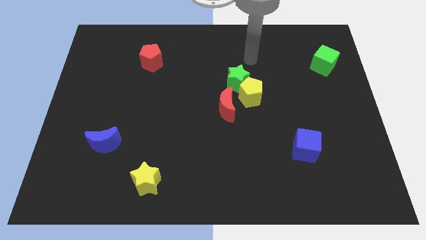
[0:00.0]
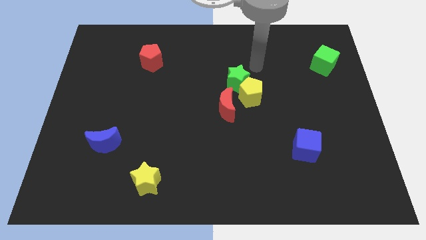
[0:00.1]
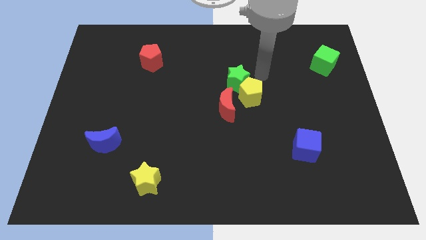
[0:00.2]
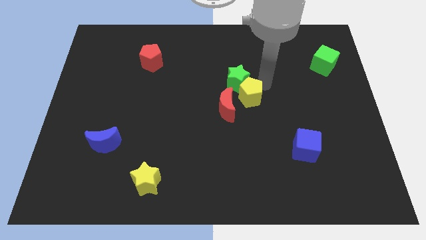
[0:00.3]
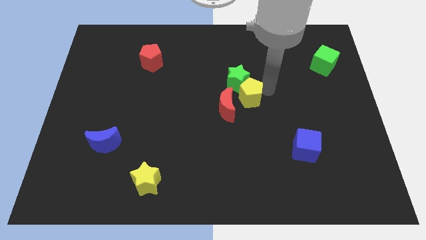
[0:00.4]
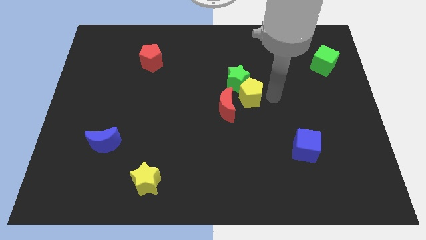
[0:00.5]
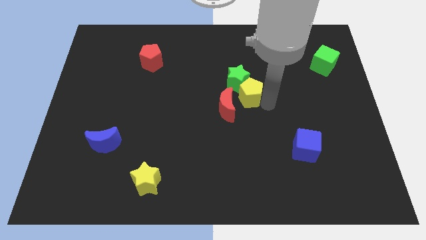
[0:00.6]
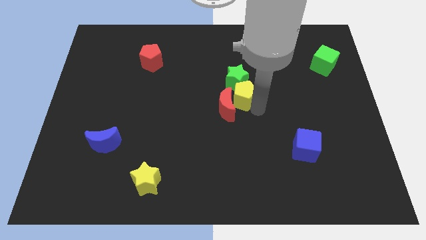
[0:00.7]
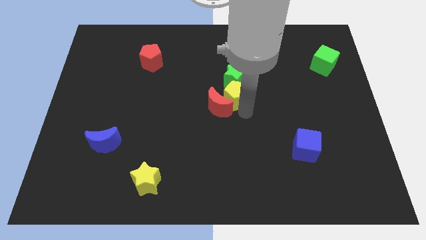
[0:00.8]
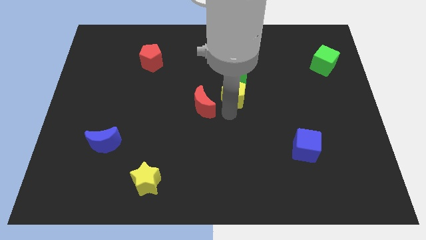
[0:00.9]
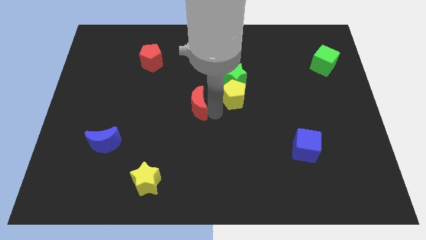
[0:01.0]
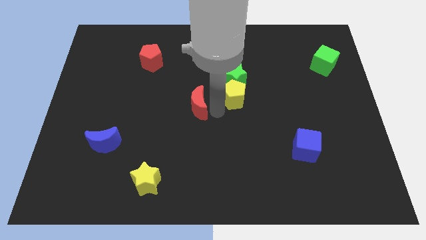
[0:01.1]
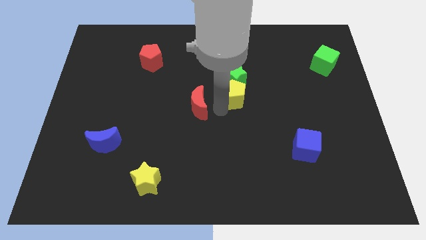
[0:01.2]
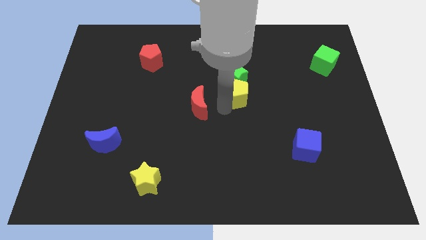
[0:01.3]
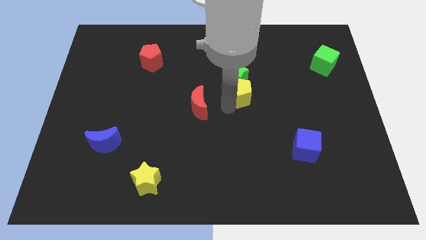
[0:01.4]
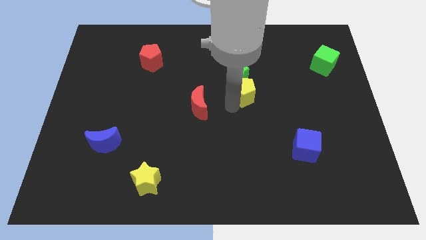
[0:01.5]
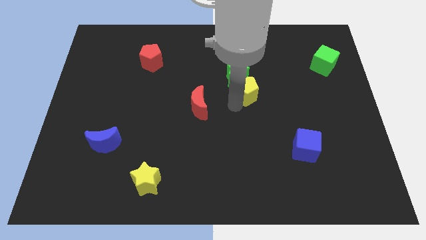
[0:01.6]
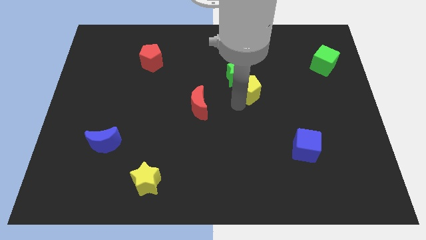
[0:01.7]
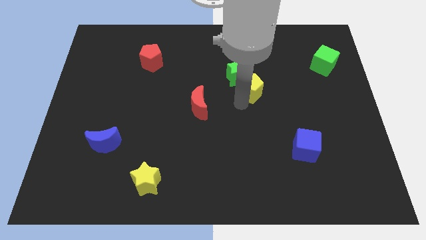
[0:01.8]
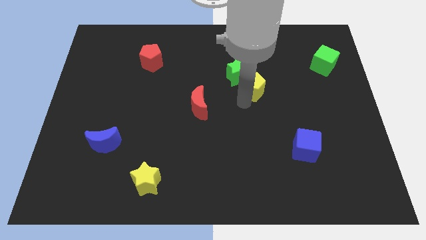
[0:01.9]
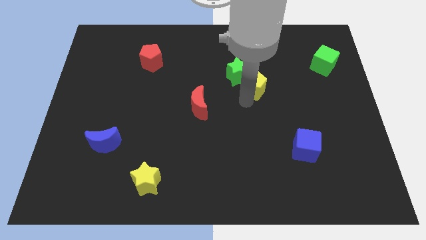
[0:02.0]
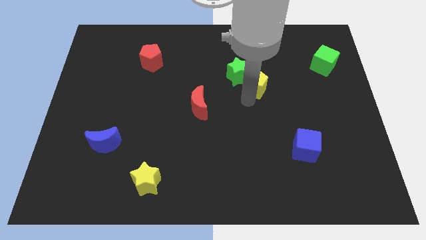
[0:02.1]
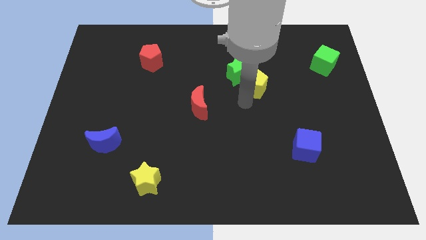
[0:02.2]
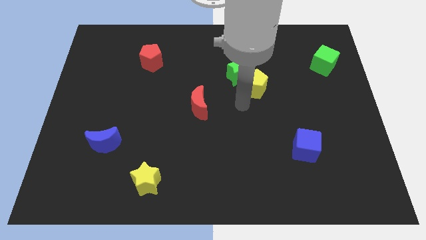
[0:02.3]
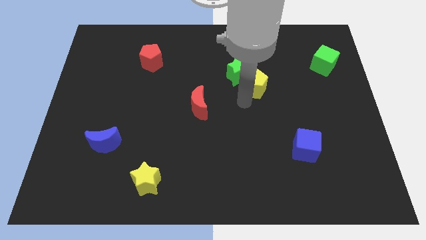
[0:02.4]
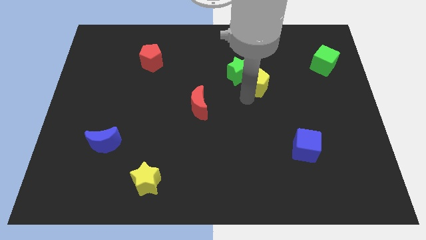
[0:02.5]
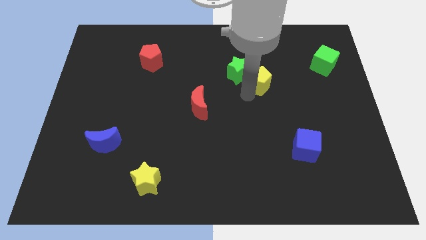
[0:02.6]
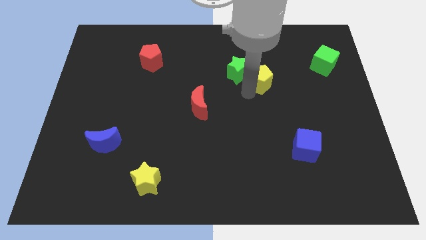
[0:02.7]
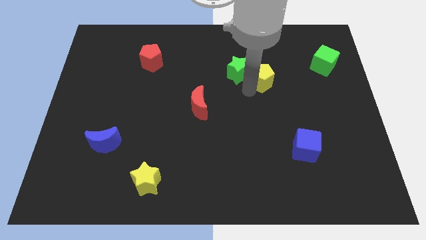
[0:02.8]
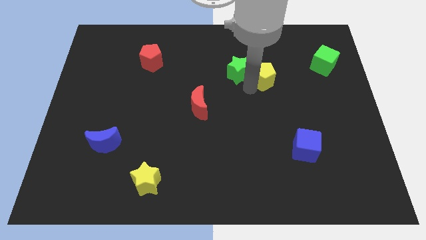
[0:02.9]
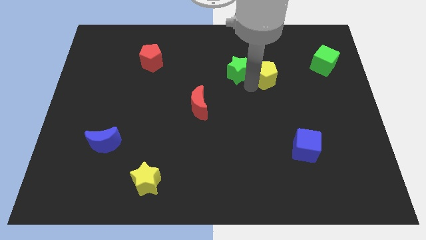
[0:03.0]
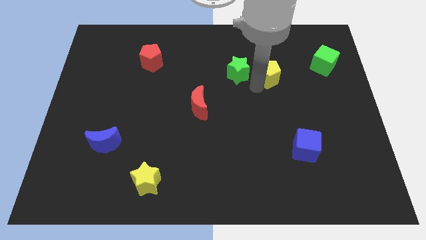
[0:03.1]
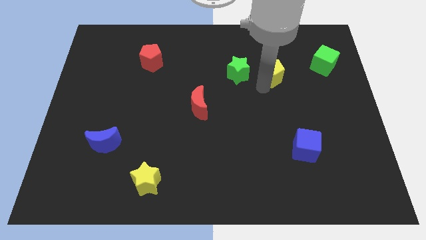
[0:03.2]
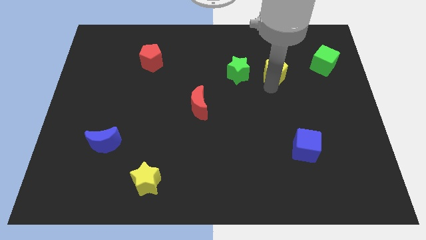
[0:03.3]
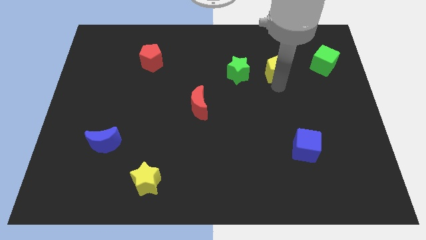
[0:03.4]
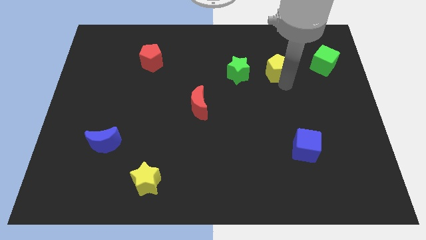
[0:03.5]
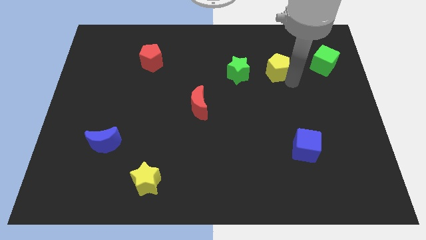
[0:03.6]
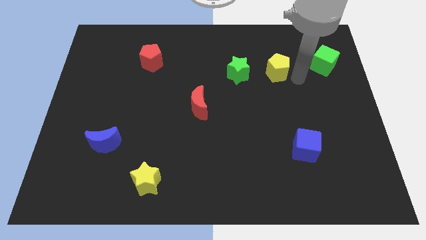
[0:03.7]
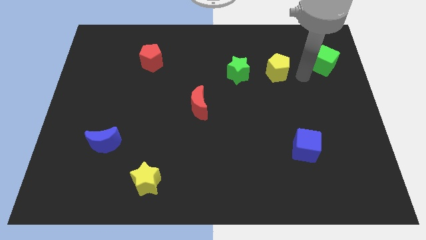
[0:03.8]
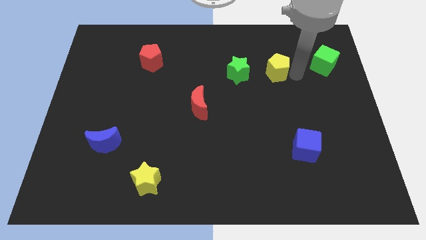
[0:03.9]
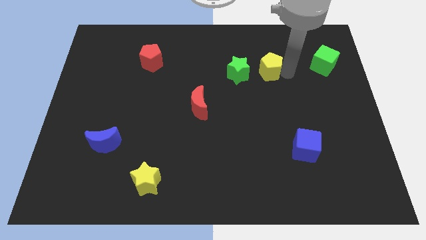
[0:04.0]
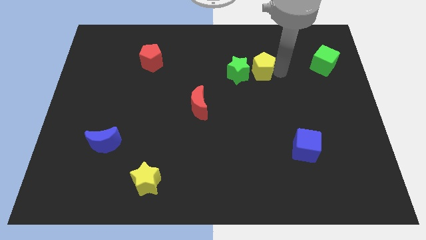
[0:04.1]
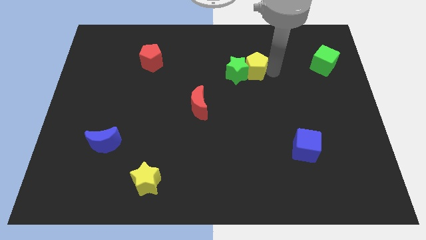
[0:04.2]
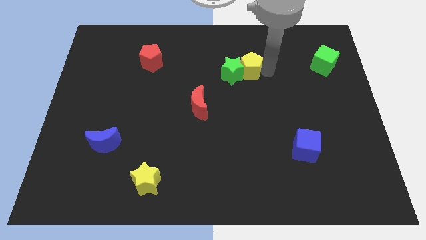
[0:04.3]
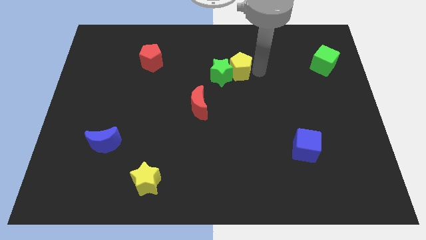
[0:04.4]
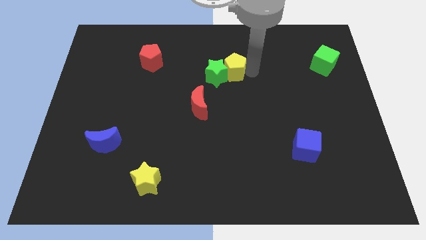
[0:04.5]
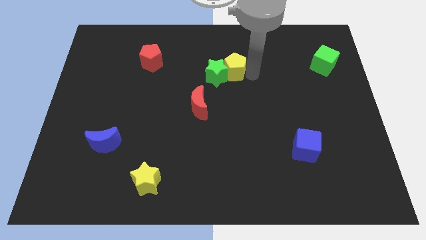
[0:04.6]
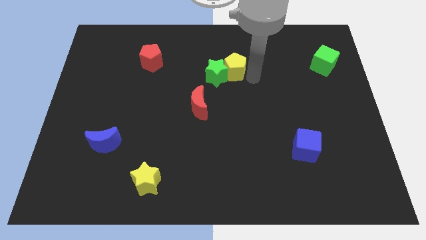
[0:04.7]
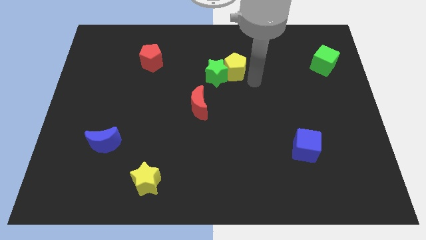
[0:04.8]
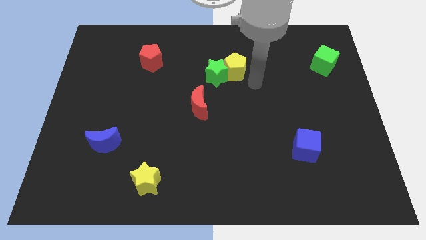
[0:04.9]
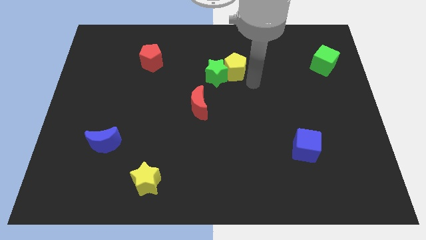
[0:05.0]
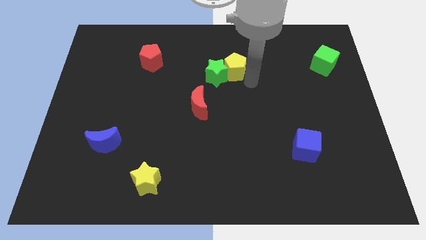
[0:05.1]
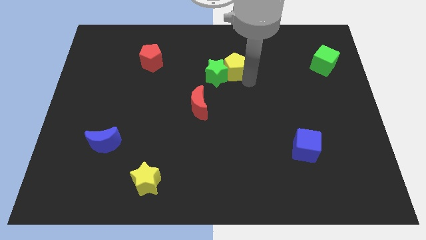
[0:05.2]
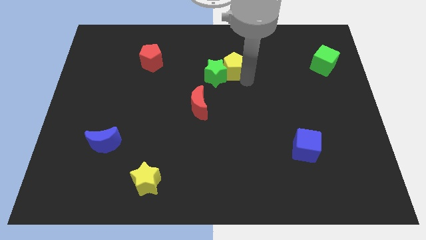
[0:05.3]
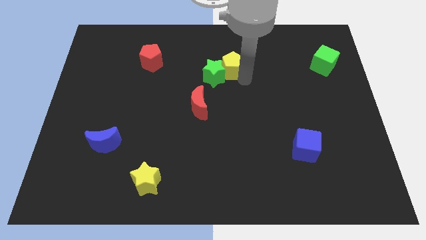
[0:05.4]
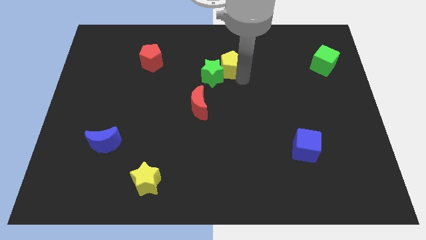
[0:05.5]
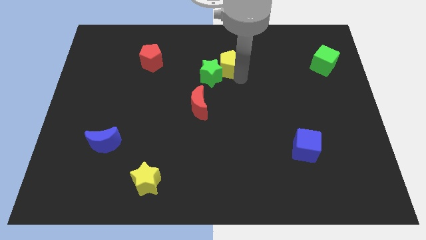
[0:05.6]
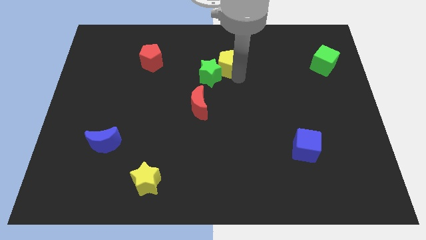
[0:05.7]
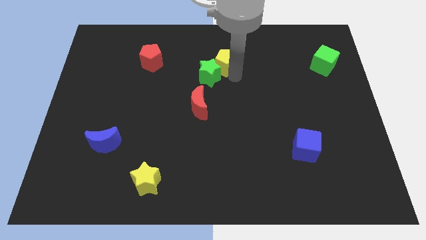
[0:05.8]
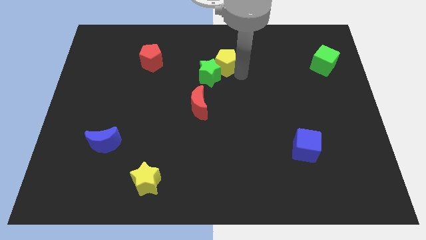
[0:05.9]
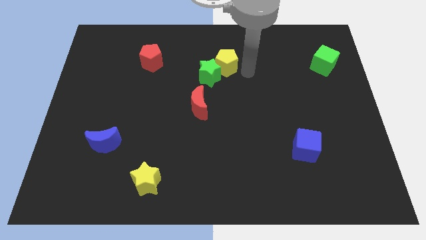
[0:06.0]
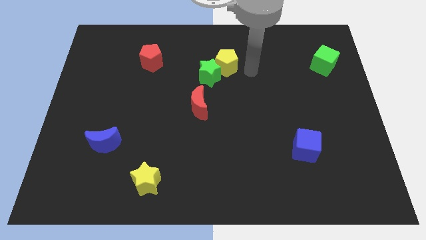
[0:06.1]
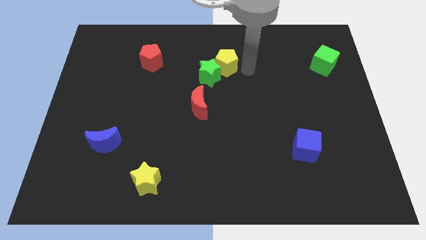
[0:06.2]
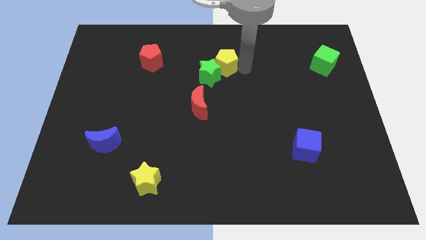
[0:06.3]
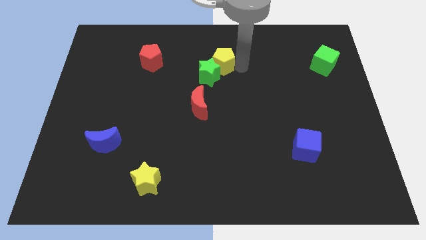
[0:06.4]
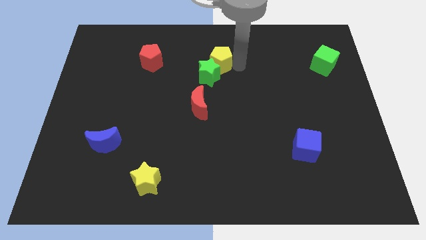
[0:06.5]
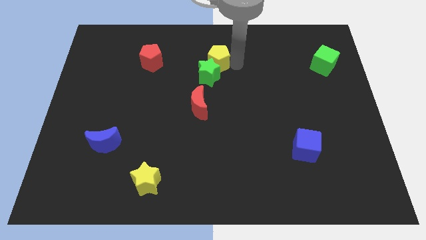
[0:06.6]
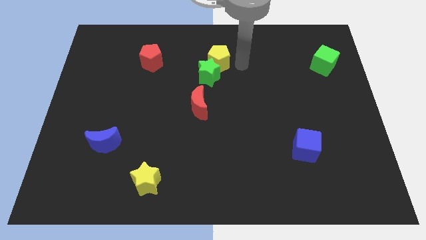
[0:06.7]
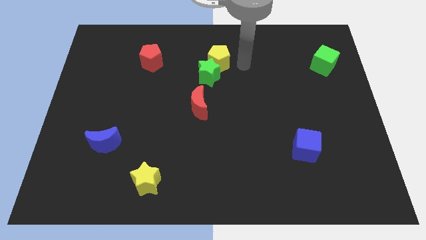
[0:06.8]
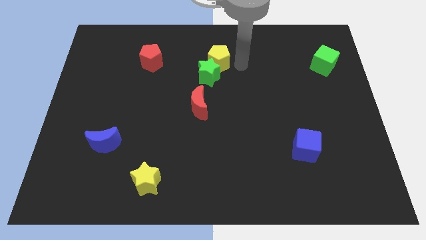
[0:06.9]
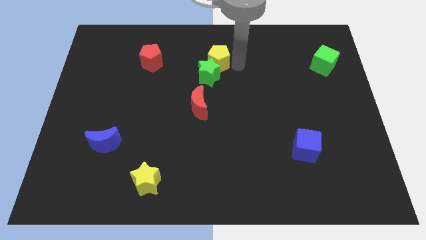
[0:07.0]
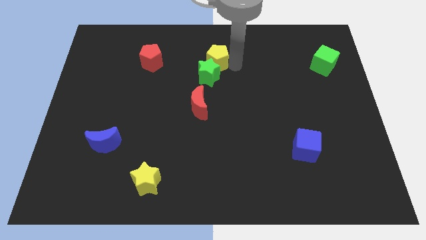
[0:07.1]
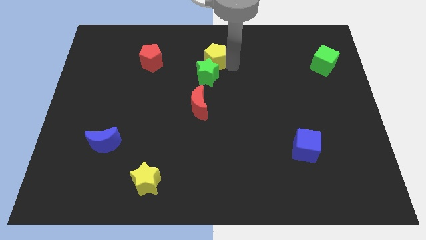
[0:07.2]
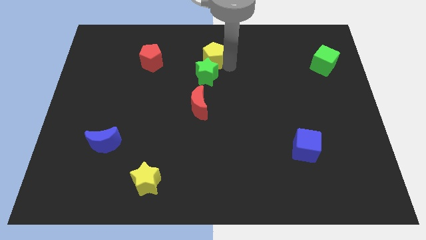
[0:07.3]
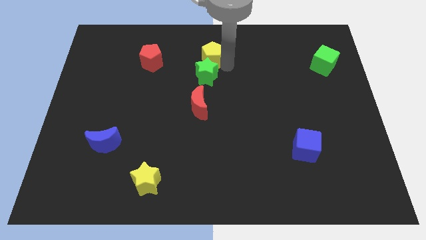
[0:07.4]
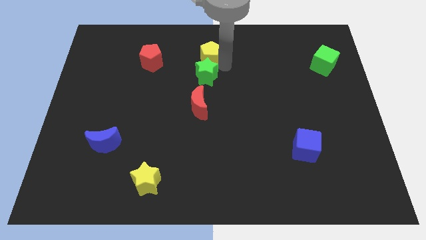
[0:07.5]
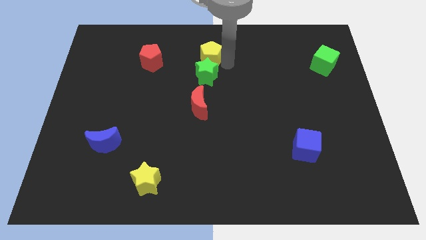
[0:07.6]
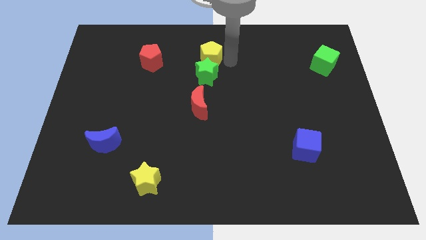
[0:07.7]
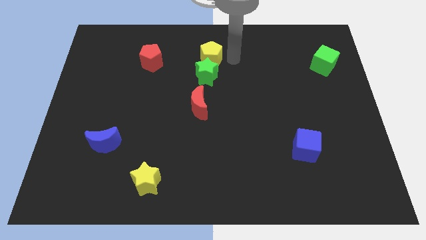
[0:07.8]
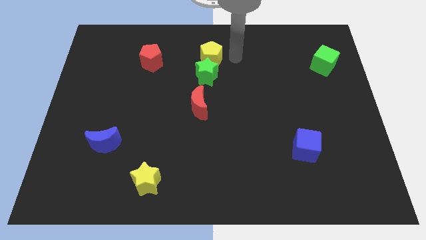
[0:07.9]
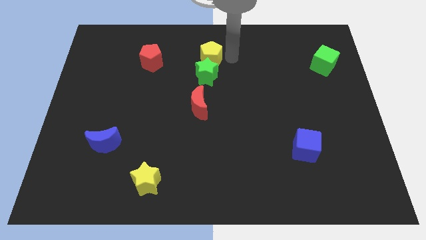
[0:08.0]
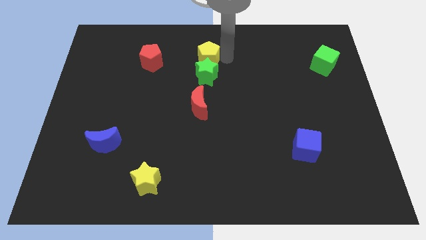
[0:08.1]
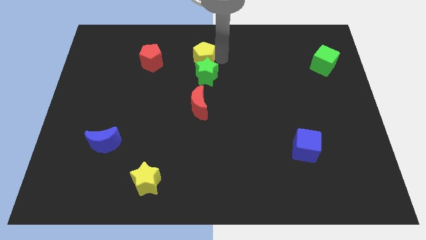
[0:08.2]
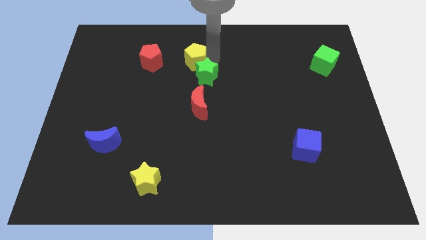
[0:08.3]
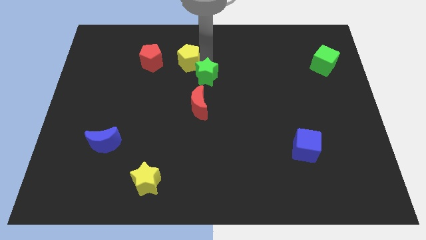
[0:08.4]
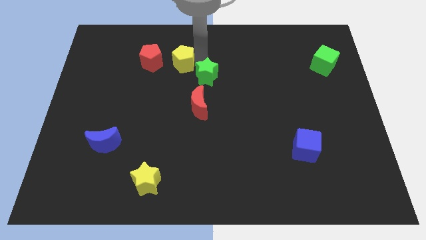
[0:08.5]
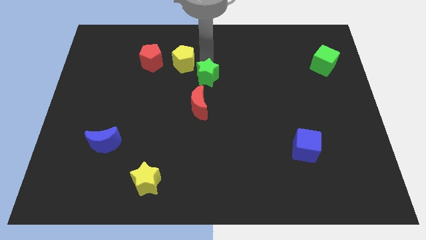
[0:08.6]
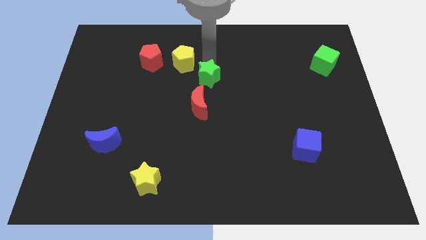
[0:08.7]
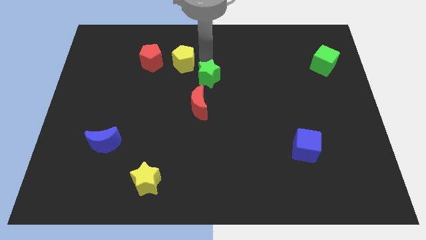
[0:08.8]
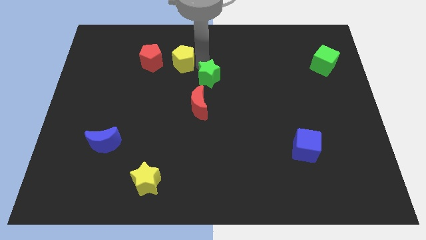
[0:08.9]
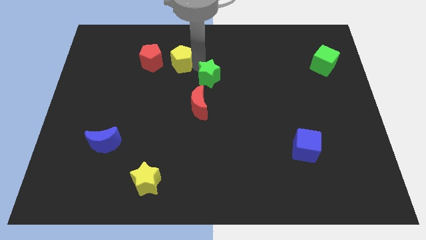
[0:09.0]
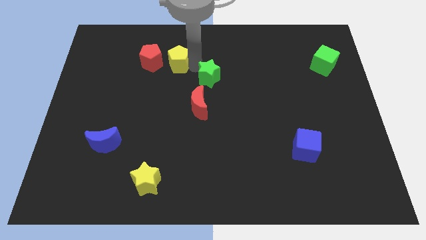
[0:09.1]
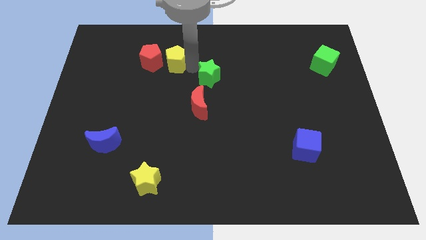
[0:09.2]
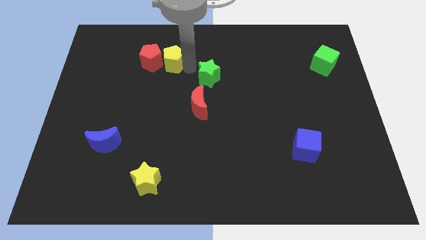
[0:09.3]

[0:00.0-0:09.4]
move the yellow pentagon next to the red pentagon
